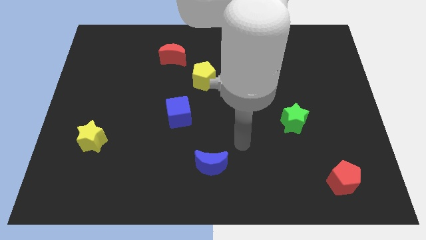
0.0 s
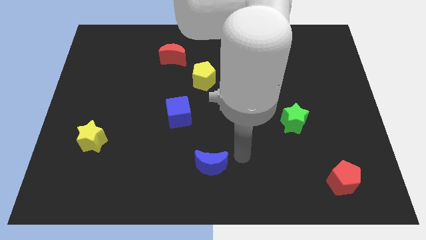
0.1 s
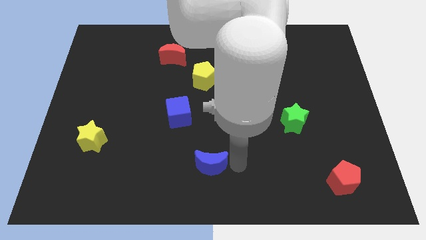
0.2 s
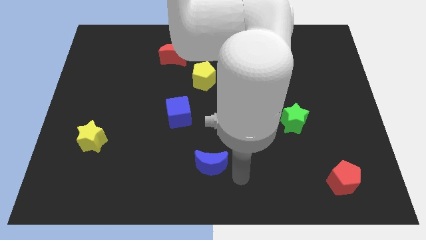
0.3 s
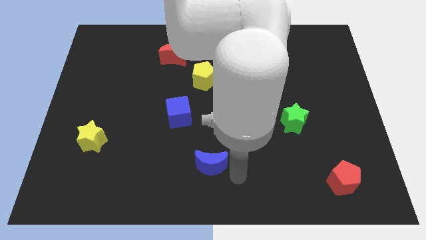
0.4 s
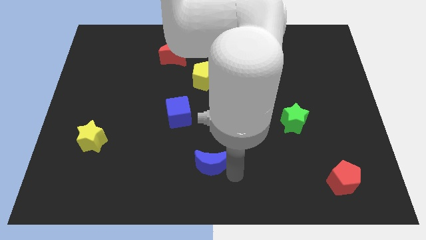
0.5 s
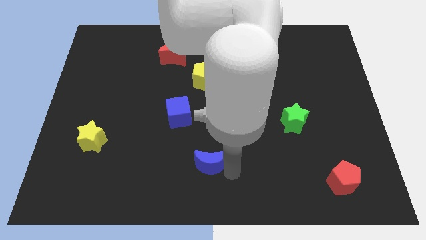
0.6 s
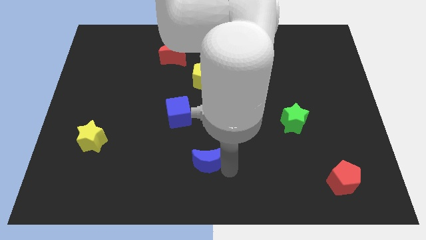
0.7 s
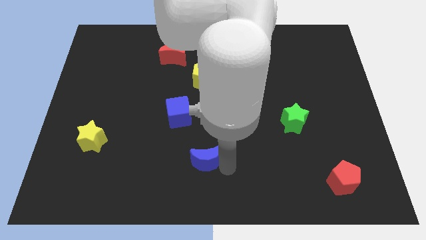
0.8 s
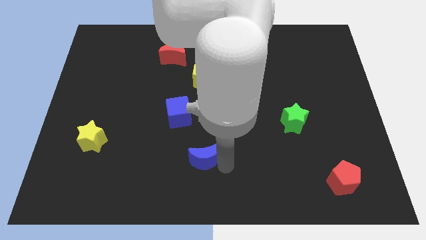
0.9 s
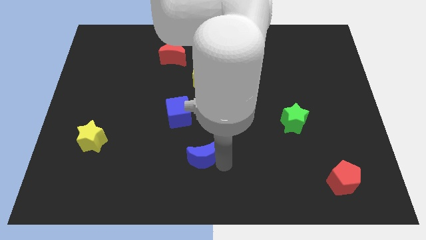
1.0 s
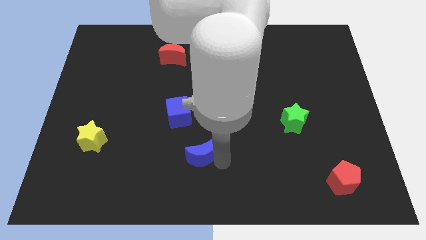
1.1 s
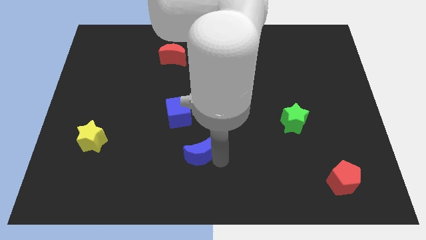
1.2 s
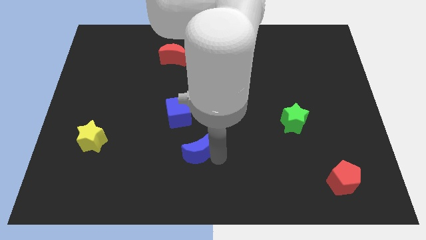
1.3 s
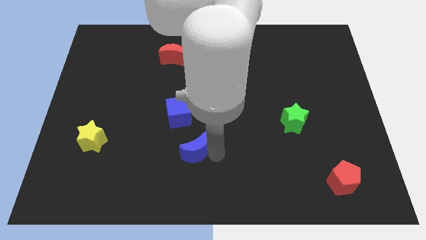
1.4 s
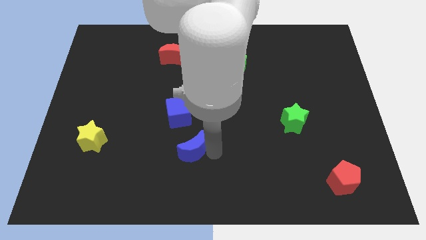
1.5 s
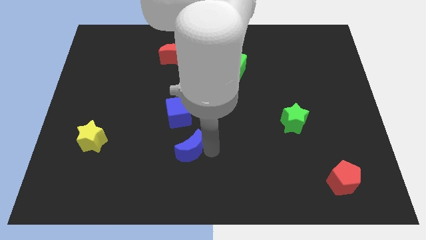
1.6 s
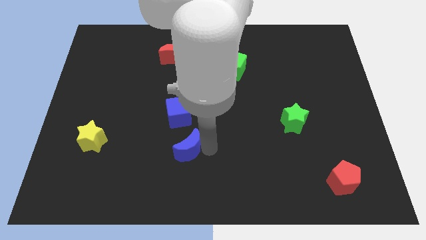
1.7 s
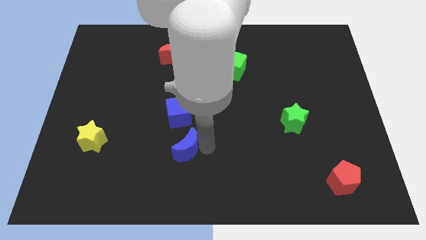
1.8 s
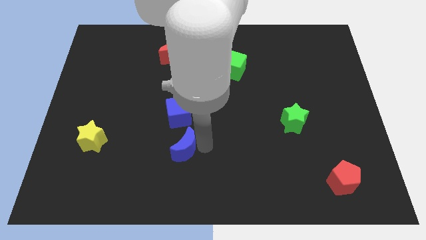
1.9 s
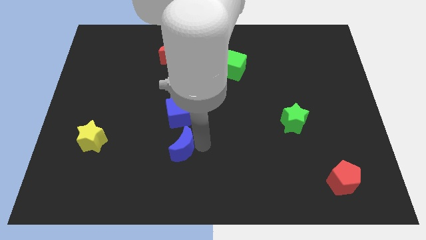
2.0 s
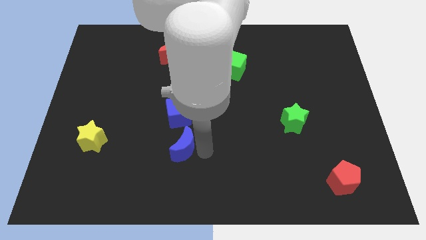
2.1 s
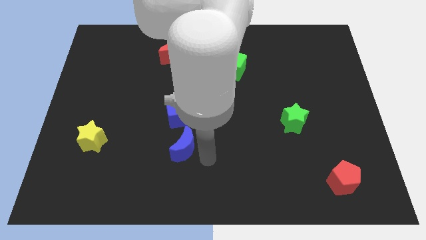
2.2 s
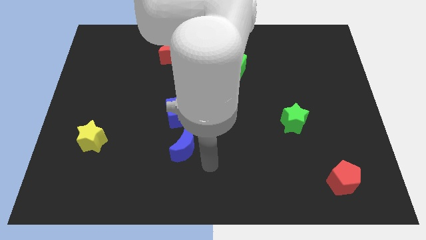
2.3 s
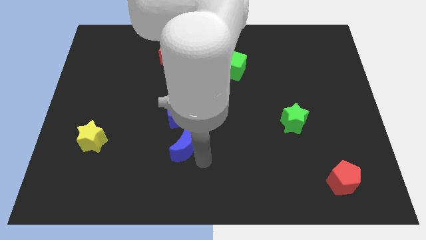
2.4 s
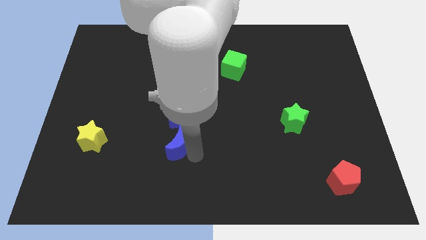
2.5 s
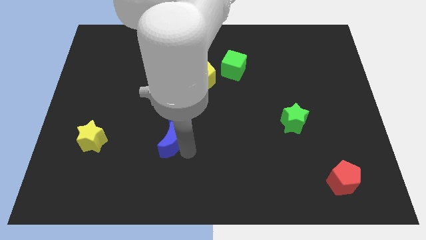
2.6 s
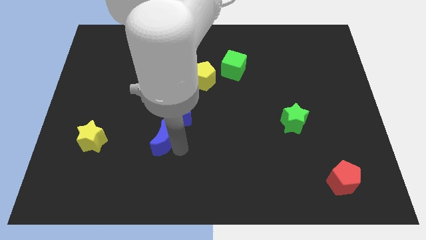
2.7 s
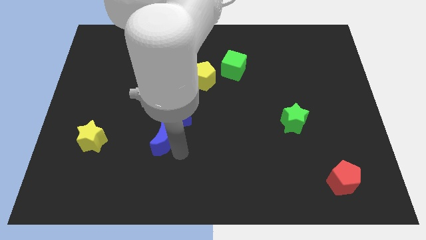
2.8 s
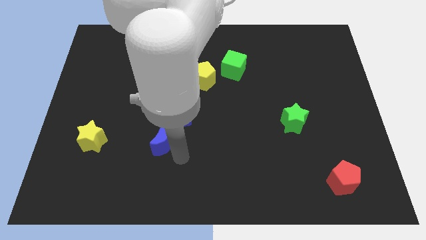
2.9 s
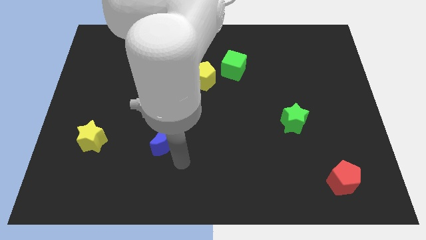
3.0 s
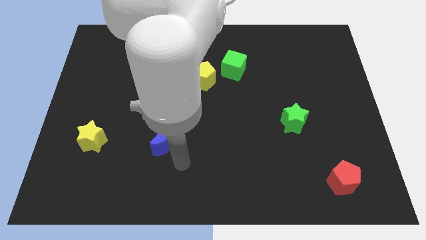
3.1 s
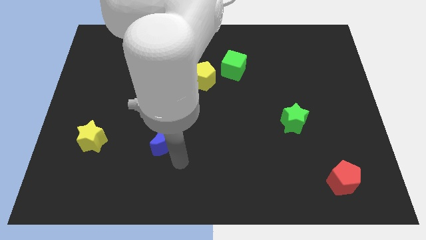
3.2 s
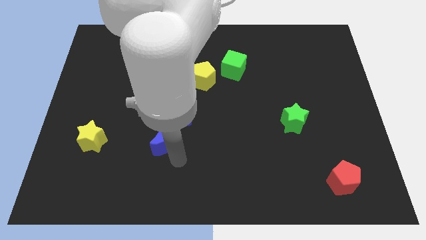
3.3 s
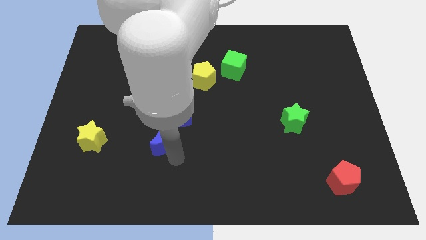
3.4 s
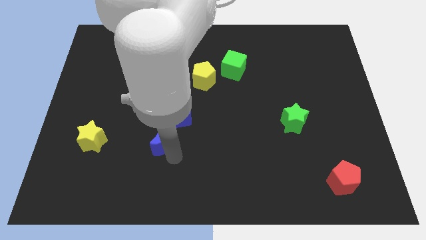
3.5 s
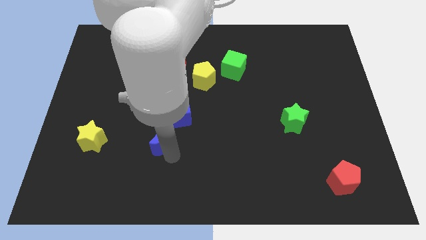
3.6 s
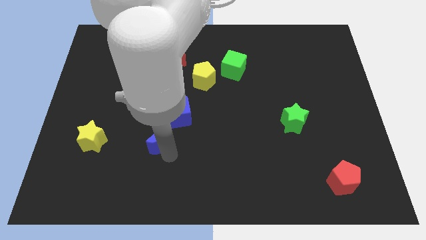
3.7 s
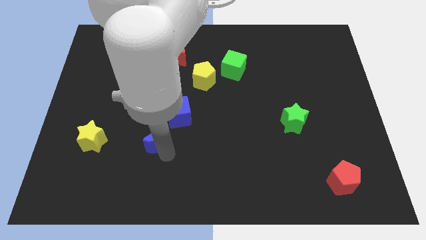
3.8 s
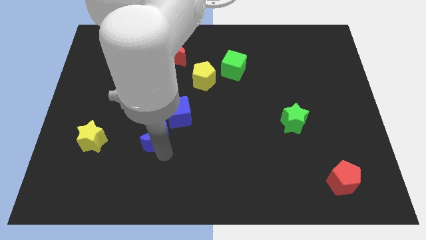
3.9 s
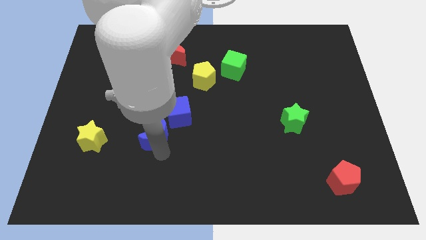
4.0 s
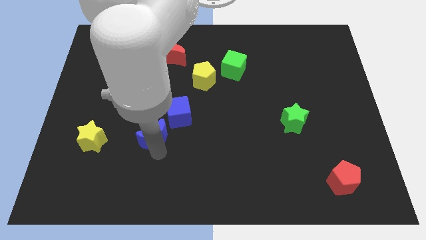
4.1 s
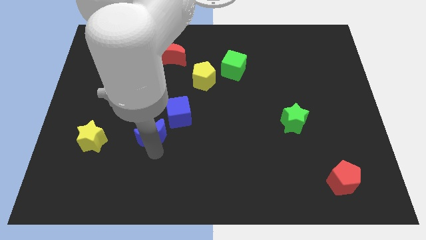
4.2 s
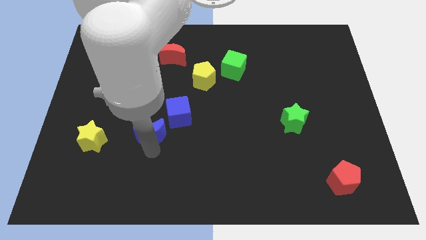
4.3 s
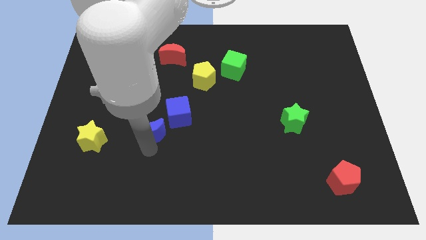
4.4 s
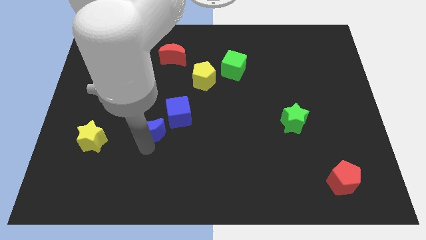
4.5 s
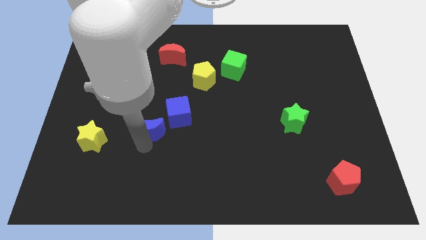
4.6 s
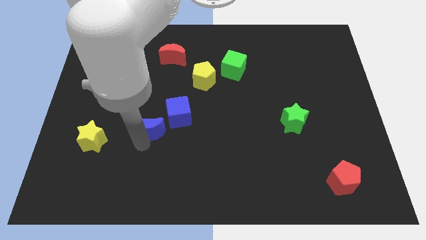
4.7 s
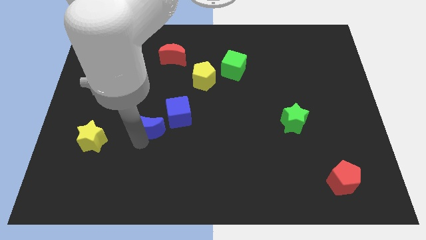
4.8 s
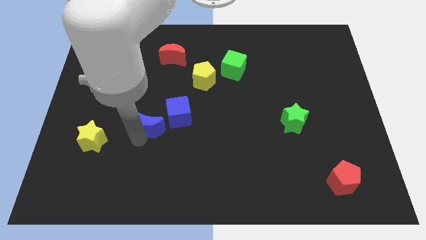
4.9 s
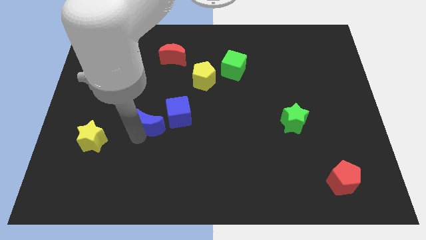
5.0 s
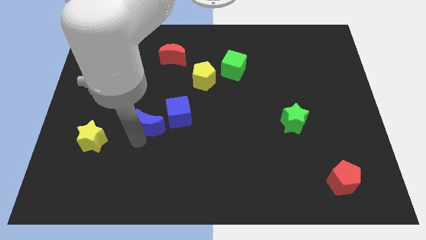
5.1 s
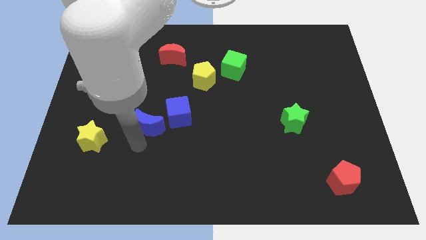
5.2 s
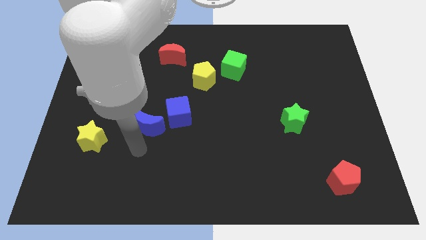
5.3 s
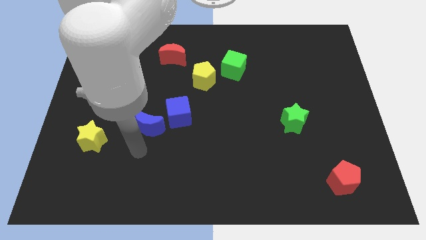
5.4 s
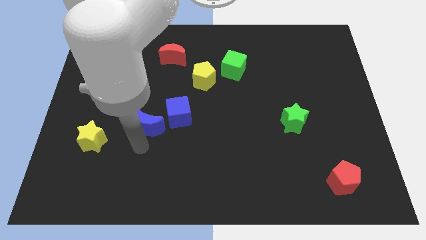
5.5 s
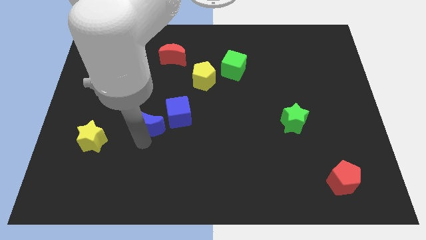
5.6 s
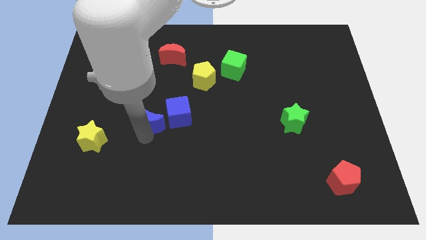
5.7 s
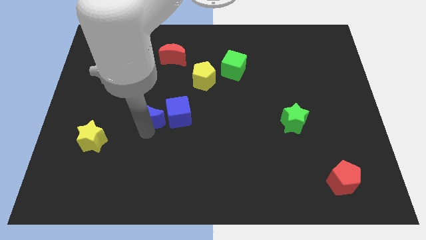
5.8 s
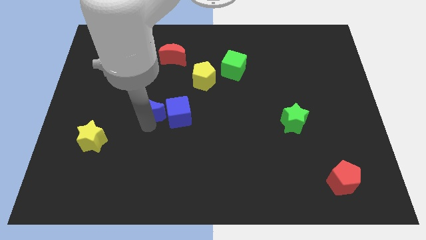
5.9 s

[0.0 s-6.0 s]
slide the blue moon to the top left of the blue cube
